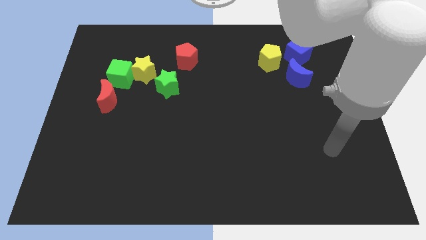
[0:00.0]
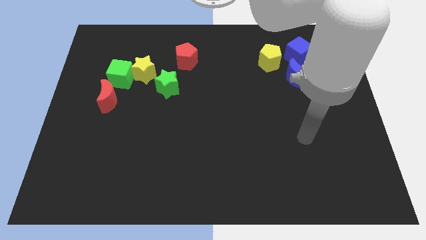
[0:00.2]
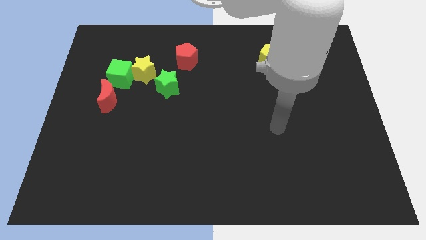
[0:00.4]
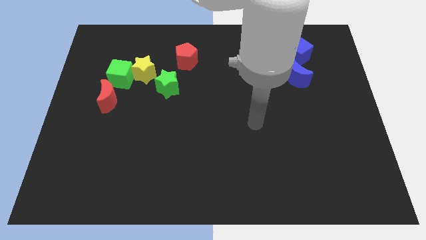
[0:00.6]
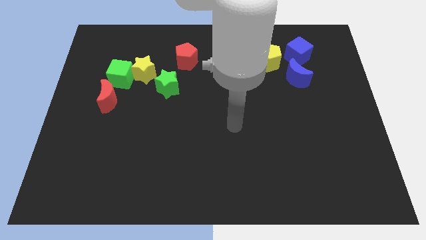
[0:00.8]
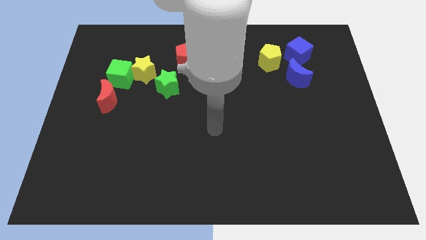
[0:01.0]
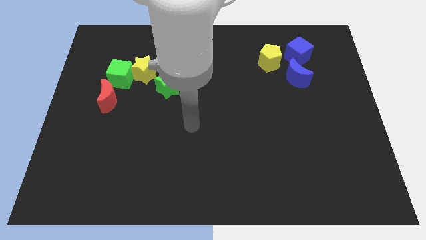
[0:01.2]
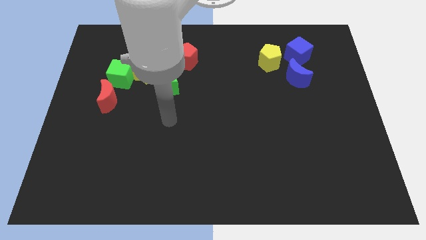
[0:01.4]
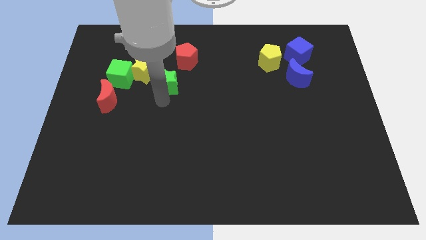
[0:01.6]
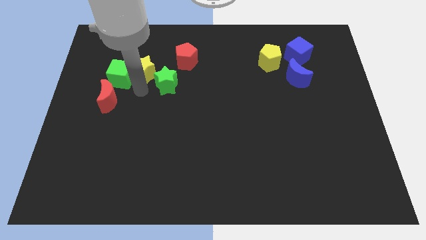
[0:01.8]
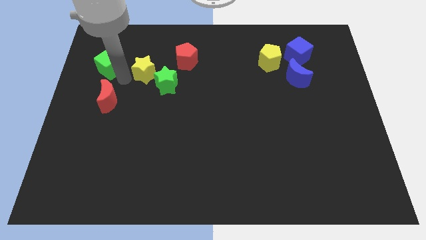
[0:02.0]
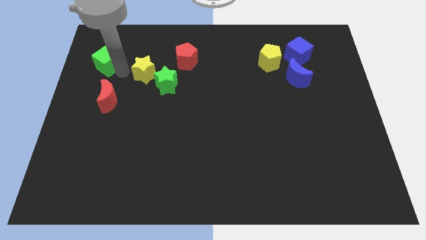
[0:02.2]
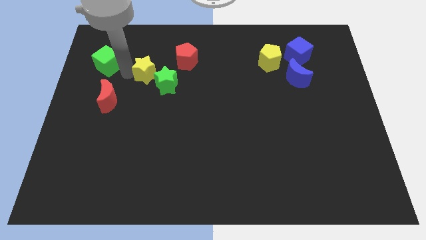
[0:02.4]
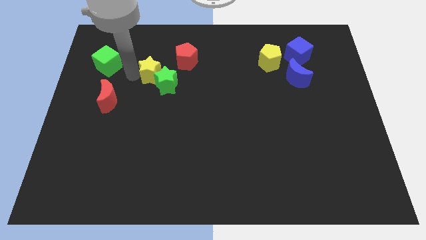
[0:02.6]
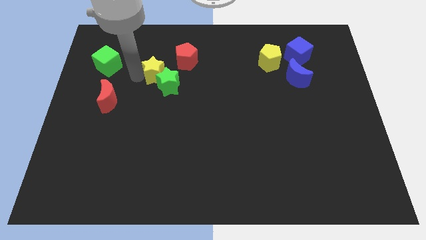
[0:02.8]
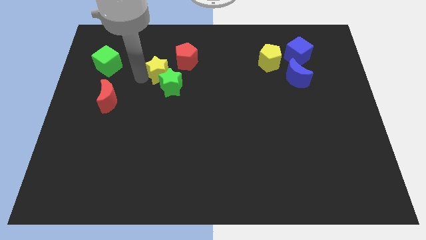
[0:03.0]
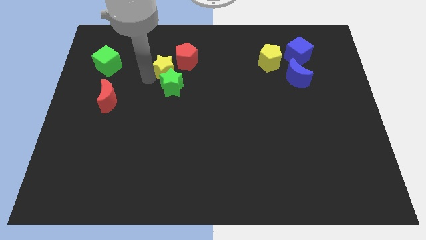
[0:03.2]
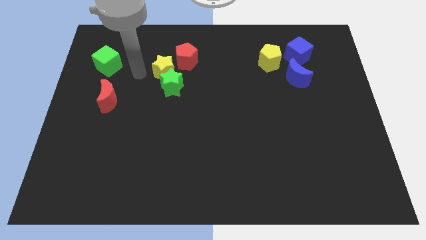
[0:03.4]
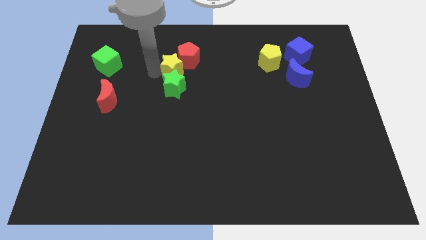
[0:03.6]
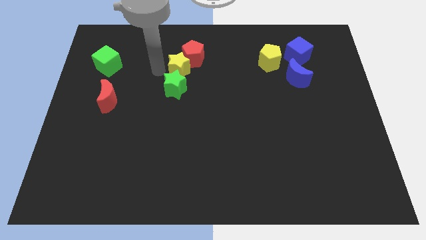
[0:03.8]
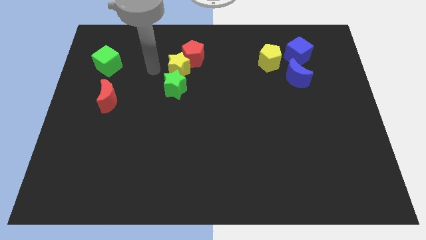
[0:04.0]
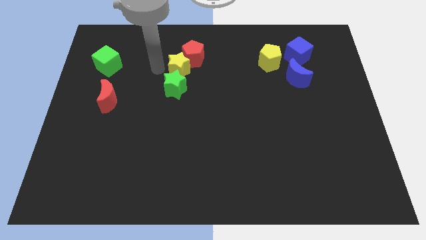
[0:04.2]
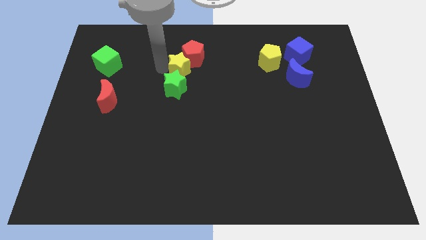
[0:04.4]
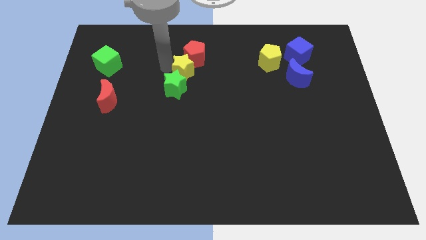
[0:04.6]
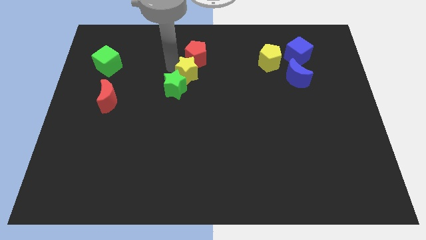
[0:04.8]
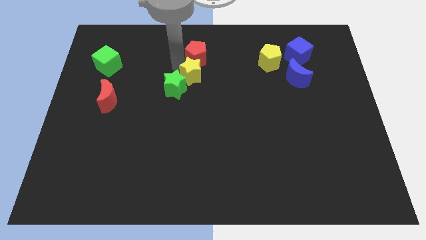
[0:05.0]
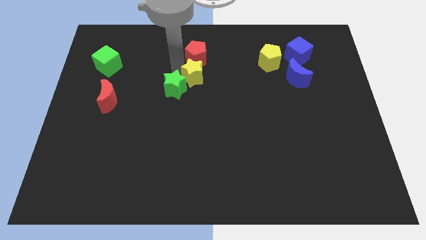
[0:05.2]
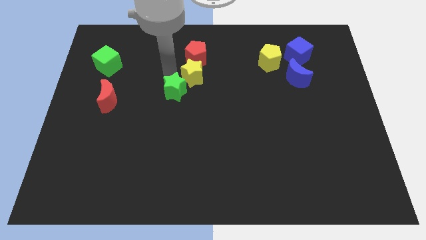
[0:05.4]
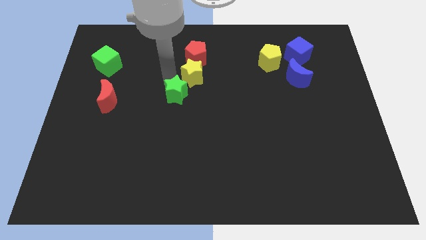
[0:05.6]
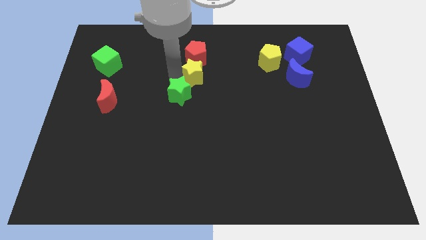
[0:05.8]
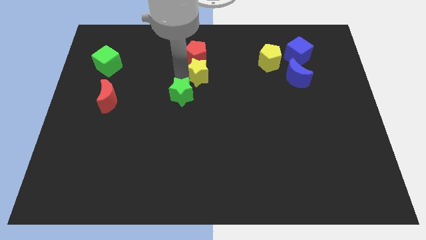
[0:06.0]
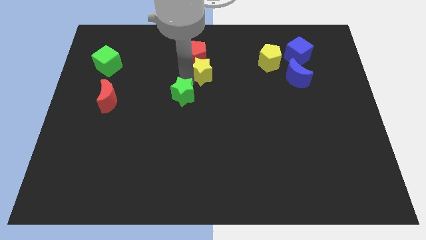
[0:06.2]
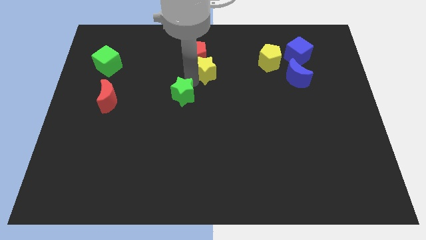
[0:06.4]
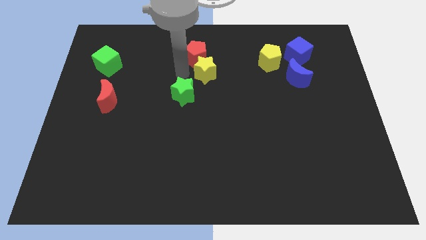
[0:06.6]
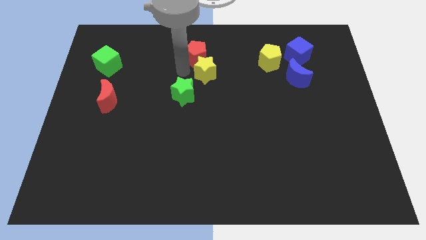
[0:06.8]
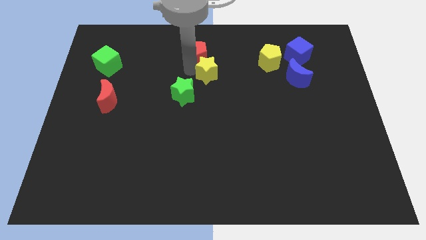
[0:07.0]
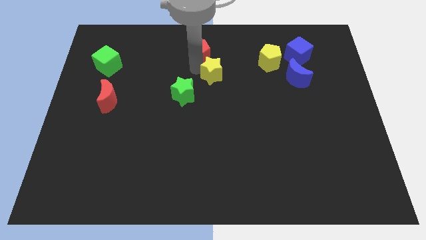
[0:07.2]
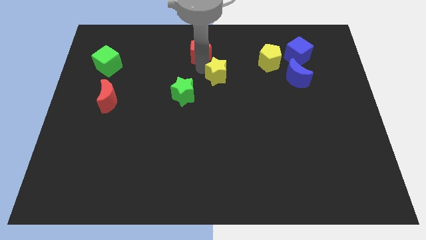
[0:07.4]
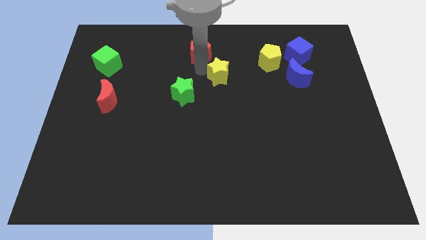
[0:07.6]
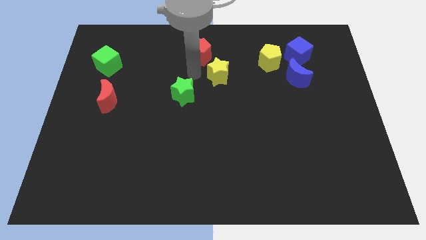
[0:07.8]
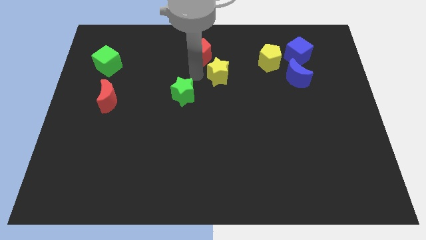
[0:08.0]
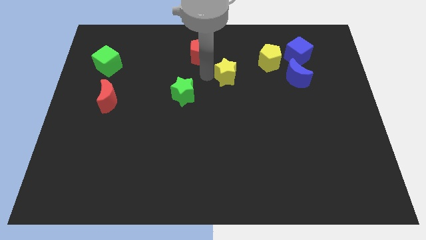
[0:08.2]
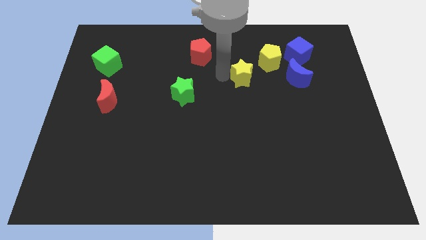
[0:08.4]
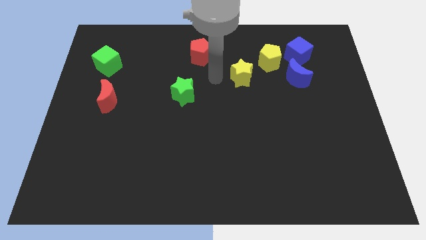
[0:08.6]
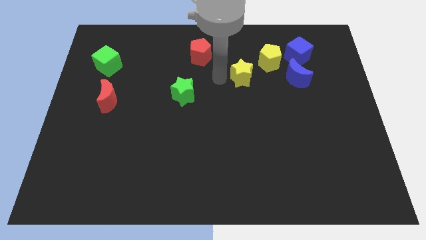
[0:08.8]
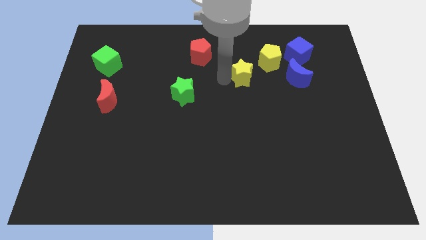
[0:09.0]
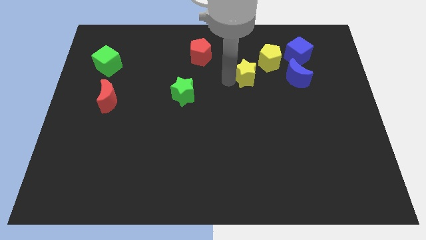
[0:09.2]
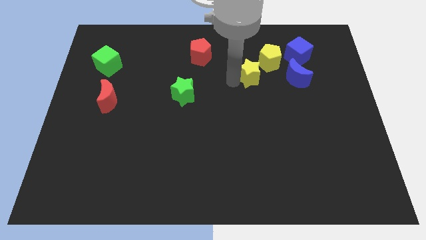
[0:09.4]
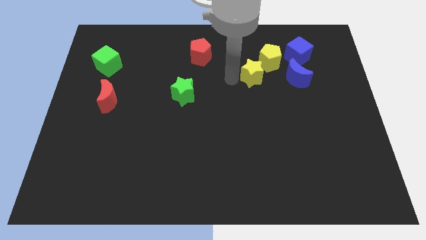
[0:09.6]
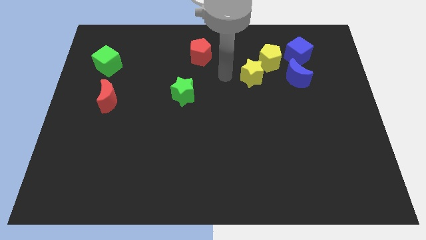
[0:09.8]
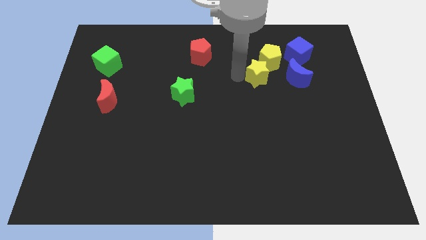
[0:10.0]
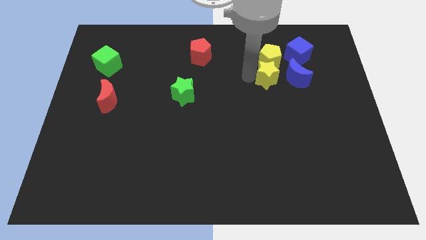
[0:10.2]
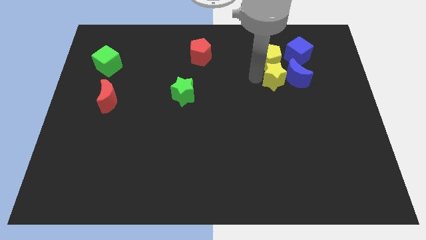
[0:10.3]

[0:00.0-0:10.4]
put the yellow star next to the blue moon

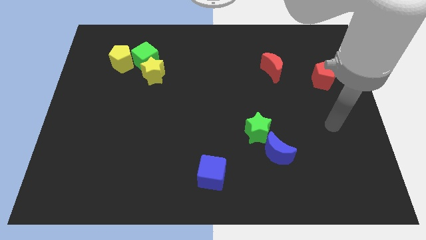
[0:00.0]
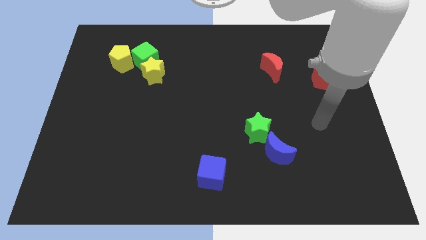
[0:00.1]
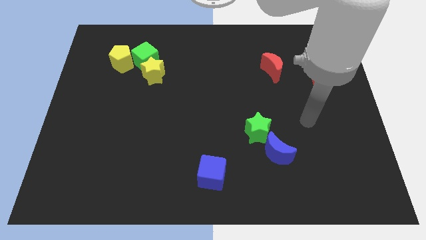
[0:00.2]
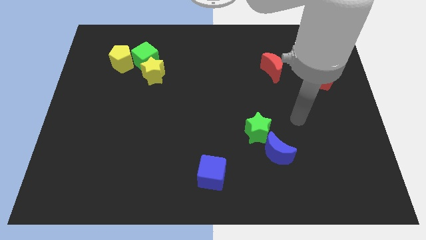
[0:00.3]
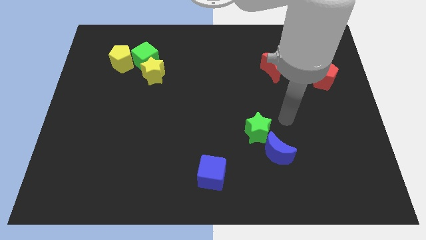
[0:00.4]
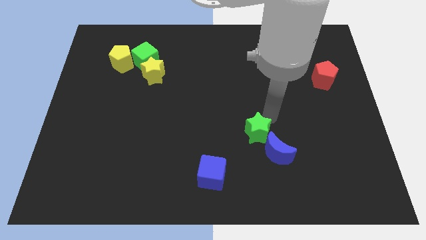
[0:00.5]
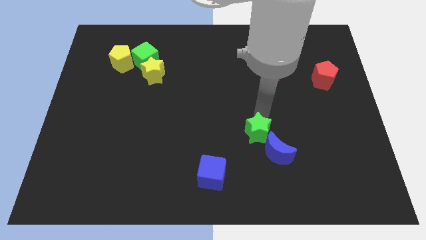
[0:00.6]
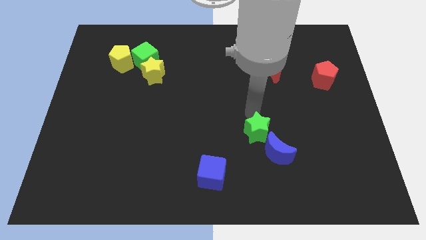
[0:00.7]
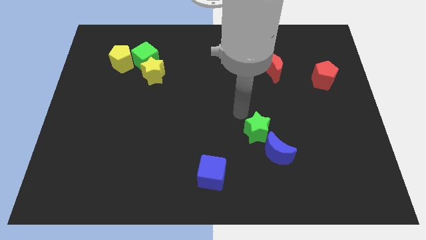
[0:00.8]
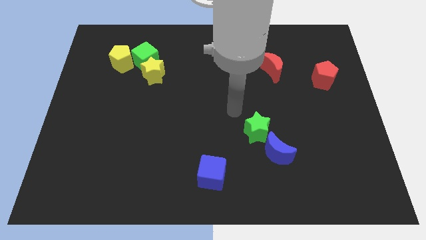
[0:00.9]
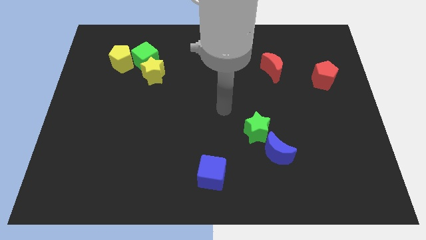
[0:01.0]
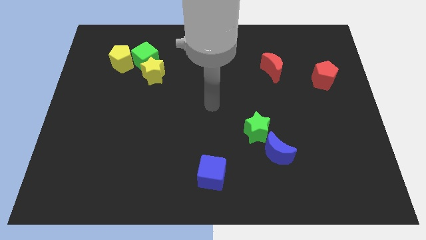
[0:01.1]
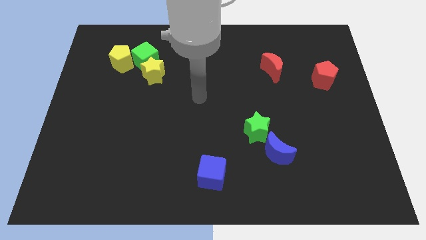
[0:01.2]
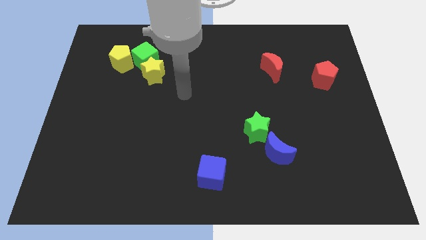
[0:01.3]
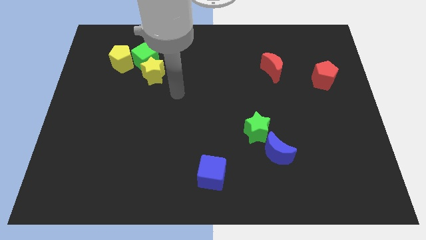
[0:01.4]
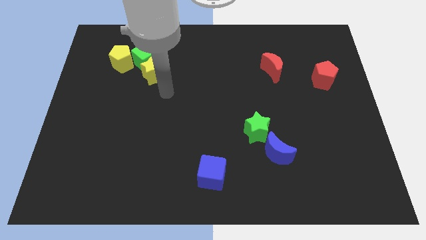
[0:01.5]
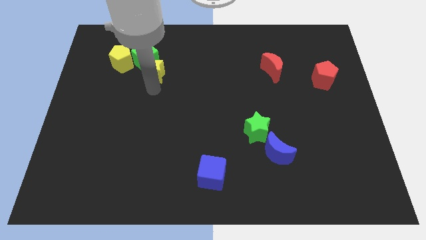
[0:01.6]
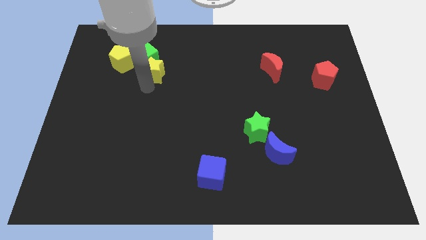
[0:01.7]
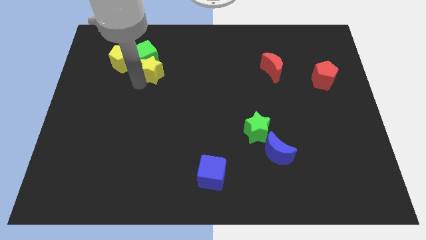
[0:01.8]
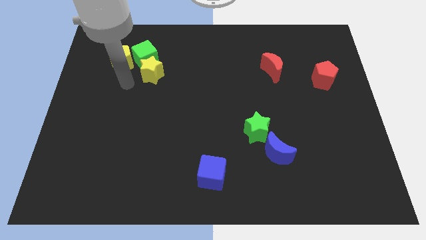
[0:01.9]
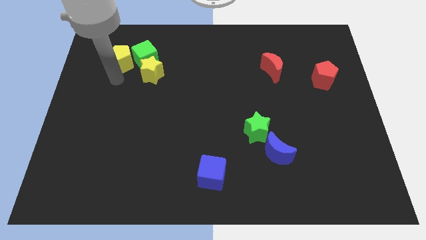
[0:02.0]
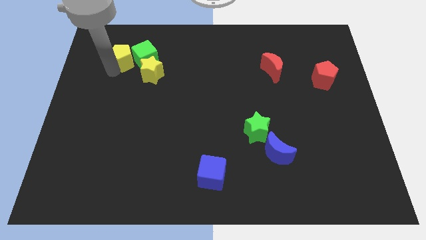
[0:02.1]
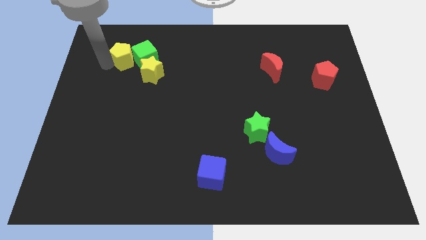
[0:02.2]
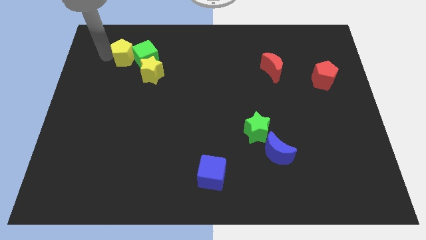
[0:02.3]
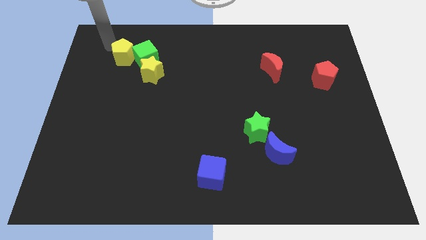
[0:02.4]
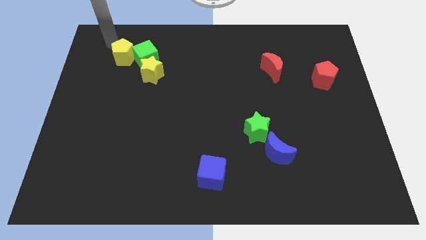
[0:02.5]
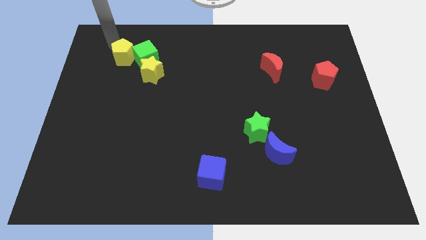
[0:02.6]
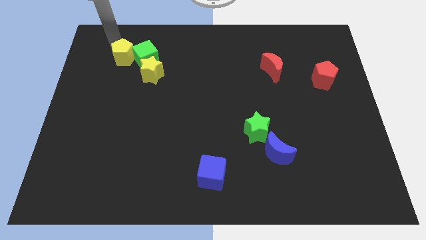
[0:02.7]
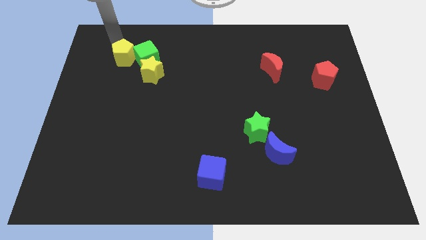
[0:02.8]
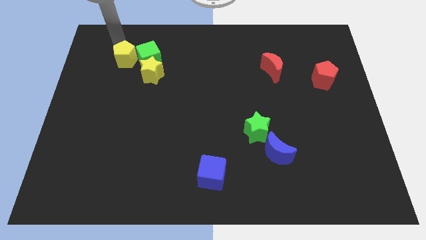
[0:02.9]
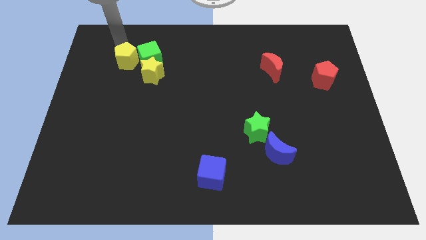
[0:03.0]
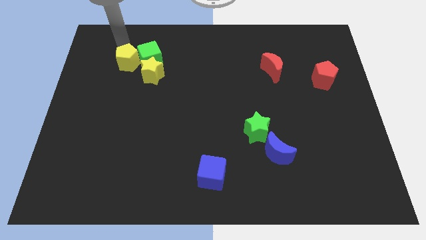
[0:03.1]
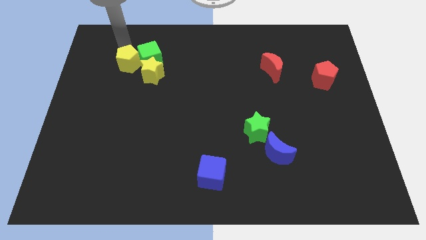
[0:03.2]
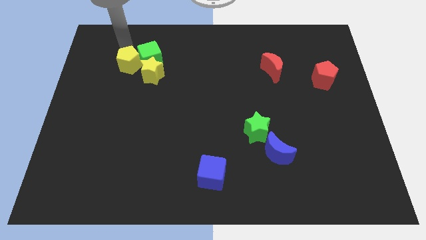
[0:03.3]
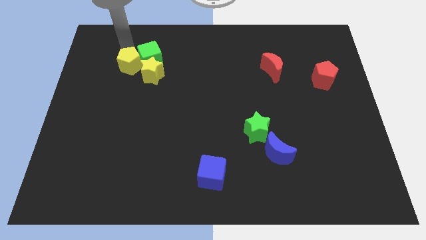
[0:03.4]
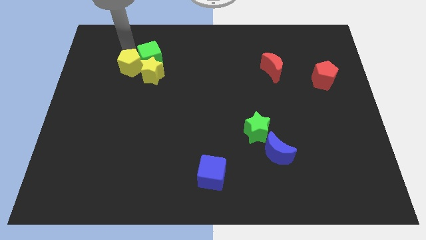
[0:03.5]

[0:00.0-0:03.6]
move the yellow pentagon close to the yellow star
